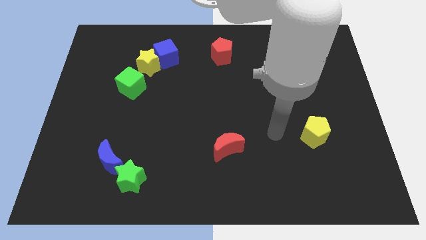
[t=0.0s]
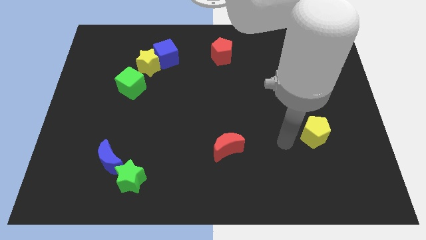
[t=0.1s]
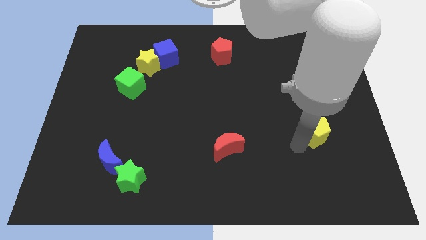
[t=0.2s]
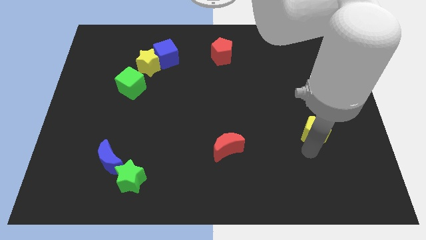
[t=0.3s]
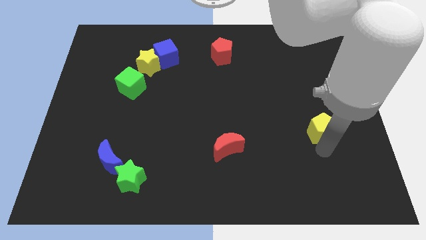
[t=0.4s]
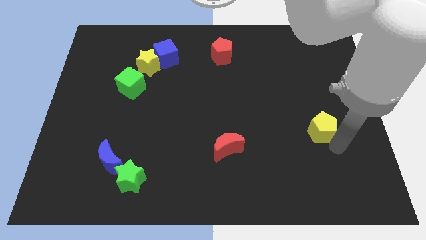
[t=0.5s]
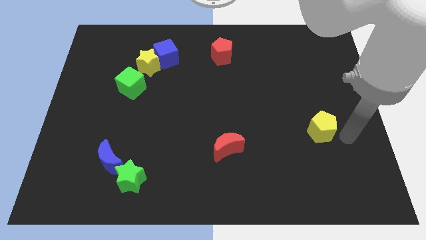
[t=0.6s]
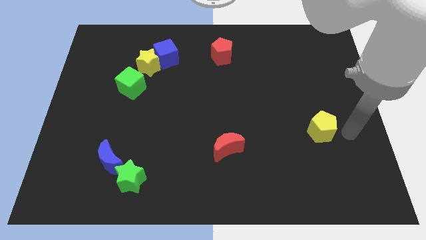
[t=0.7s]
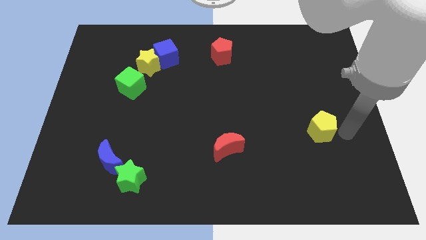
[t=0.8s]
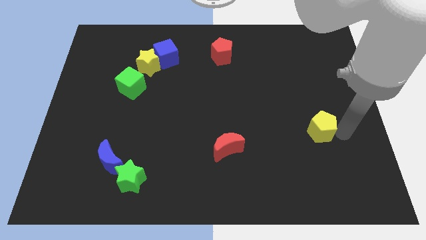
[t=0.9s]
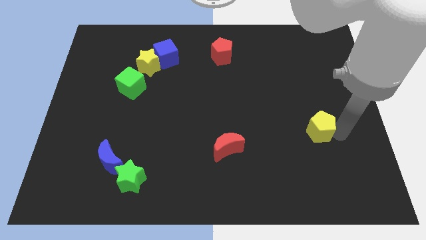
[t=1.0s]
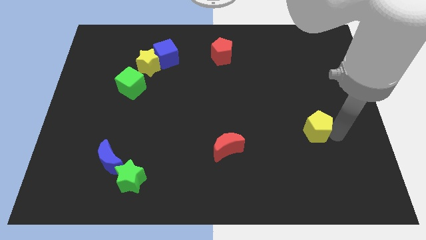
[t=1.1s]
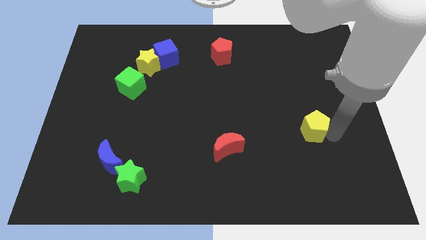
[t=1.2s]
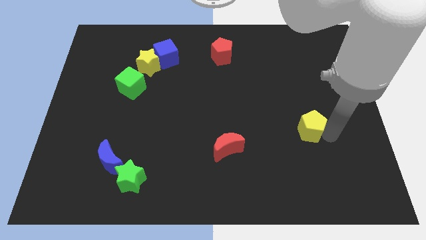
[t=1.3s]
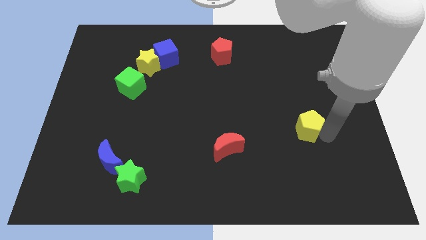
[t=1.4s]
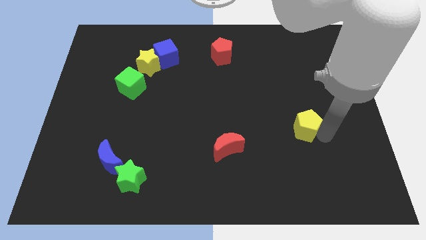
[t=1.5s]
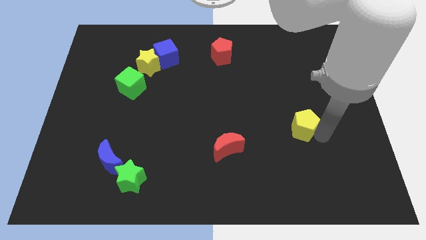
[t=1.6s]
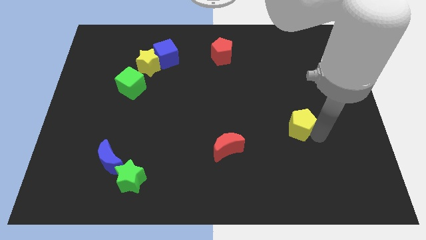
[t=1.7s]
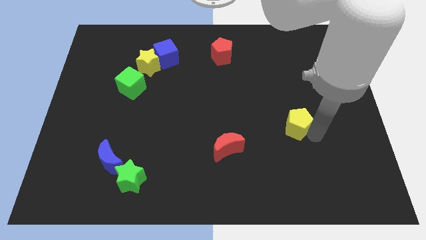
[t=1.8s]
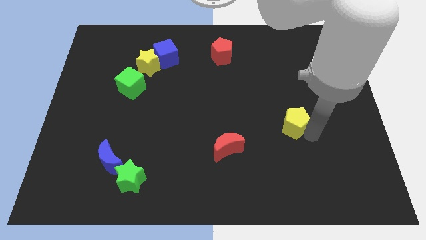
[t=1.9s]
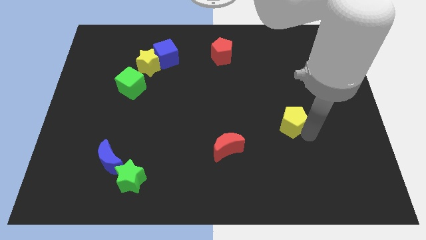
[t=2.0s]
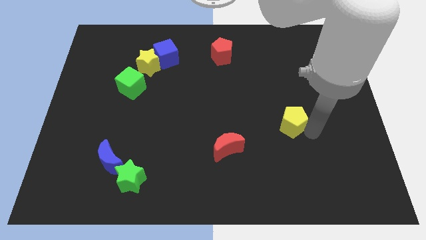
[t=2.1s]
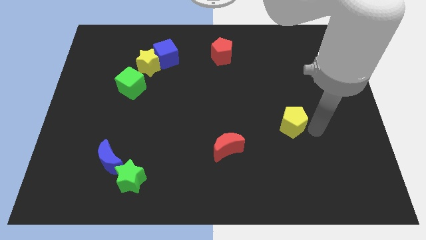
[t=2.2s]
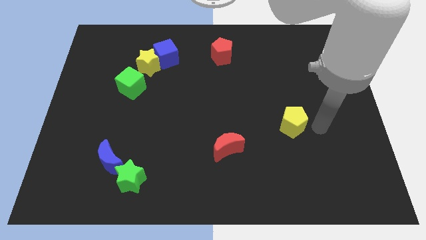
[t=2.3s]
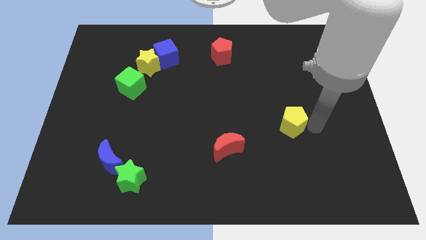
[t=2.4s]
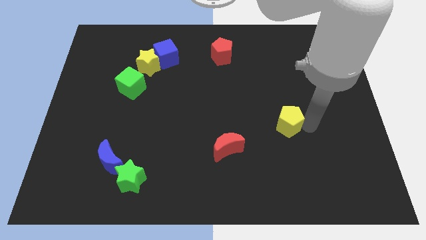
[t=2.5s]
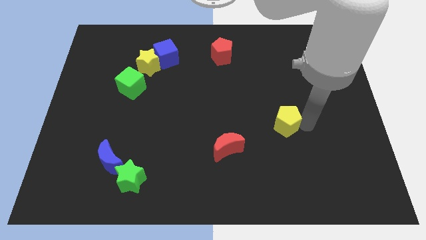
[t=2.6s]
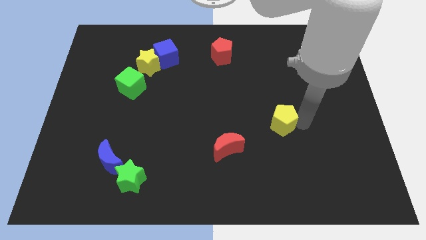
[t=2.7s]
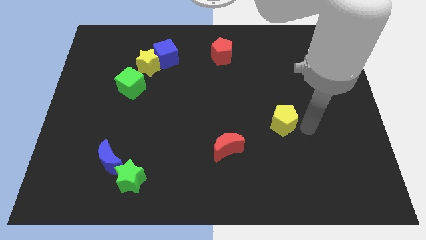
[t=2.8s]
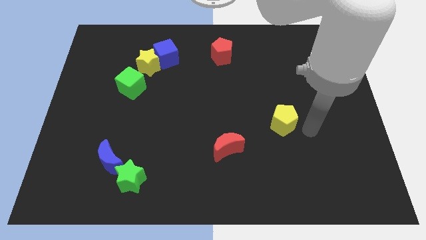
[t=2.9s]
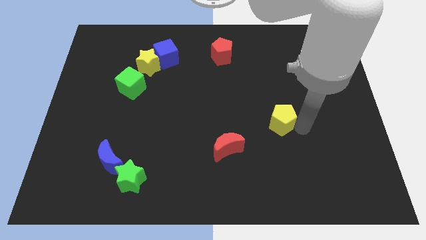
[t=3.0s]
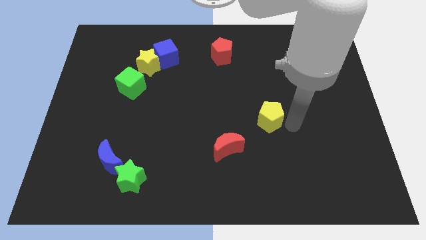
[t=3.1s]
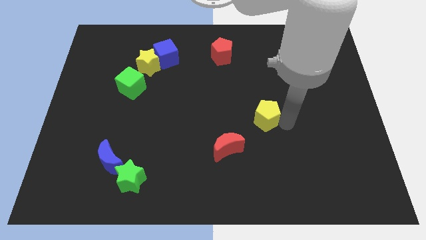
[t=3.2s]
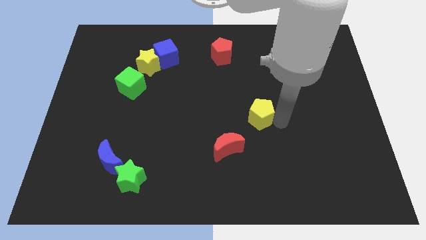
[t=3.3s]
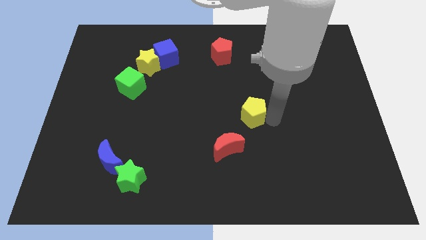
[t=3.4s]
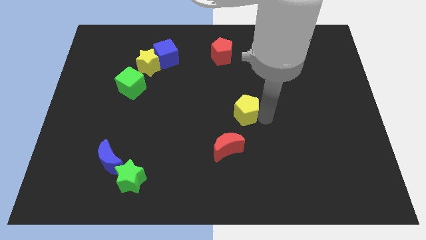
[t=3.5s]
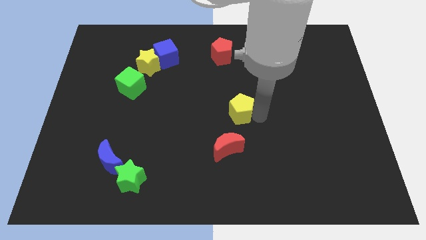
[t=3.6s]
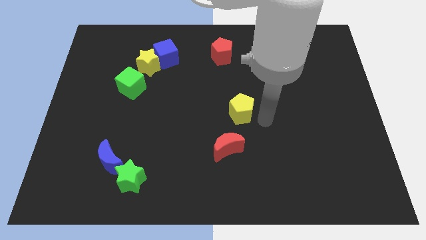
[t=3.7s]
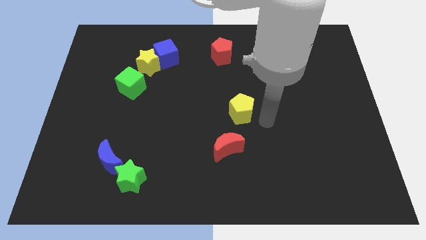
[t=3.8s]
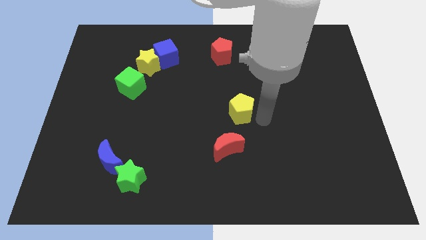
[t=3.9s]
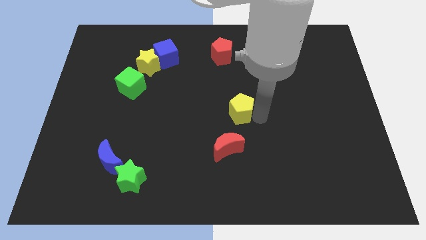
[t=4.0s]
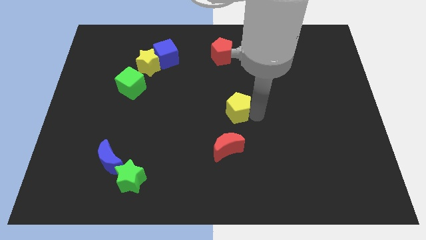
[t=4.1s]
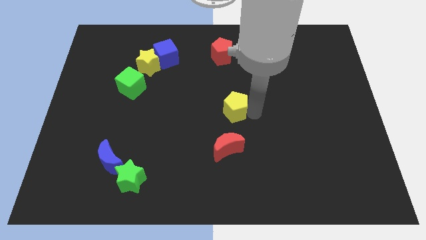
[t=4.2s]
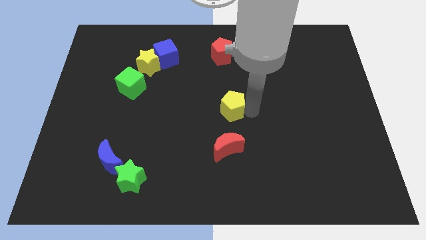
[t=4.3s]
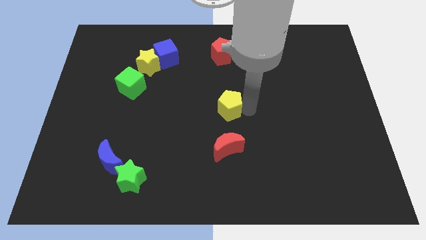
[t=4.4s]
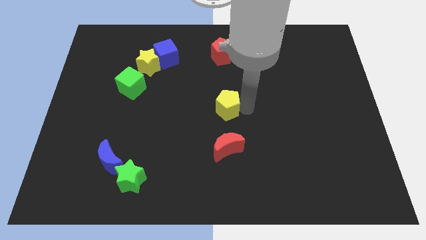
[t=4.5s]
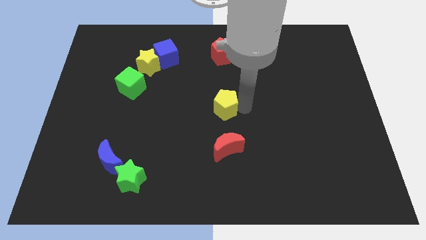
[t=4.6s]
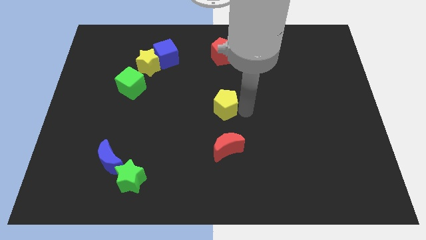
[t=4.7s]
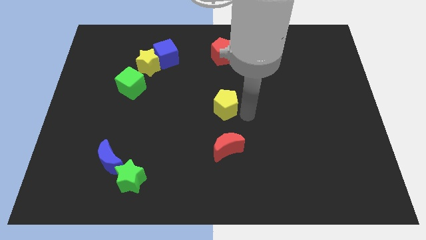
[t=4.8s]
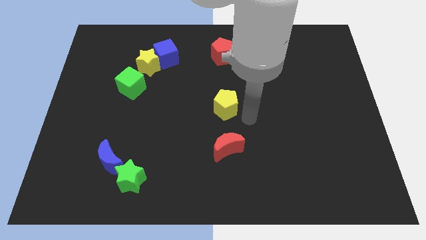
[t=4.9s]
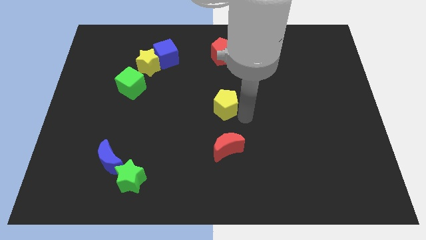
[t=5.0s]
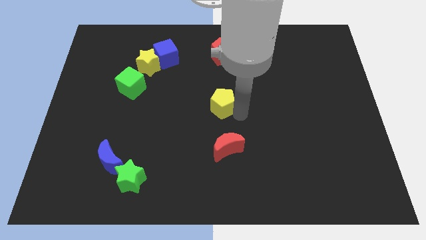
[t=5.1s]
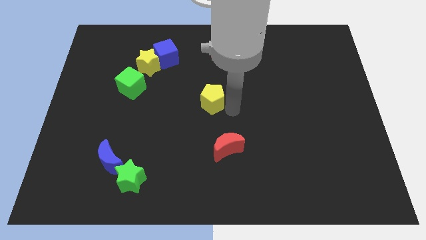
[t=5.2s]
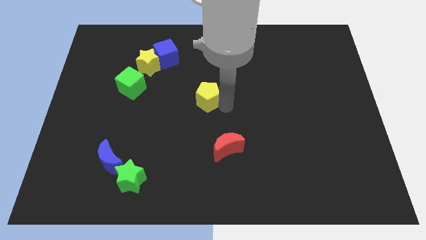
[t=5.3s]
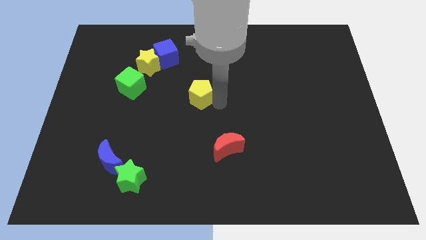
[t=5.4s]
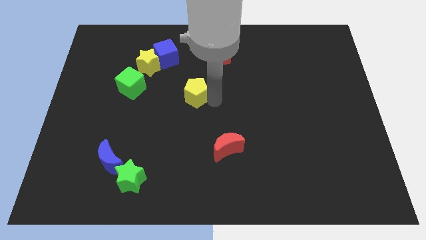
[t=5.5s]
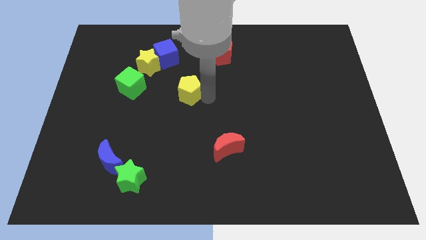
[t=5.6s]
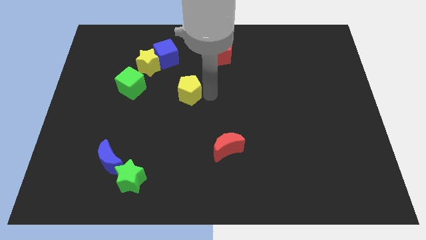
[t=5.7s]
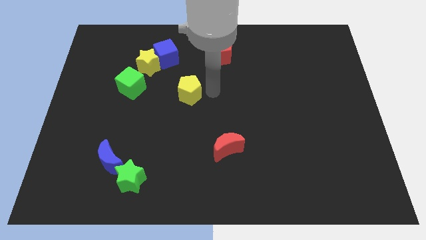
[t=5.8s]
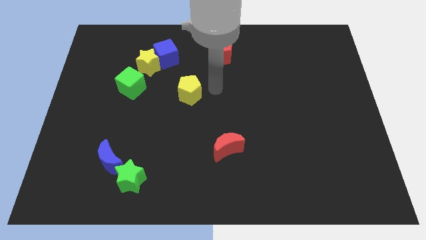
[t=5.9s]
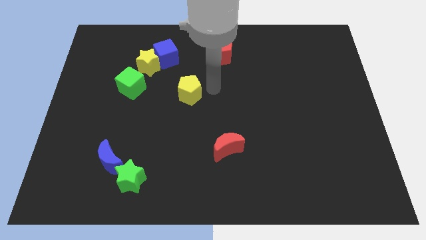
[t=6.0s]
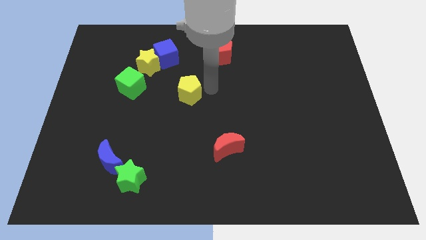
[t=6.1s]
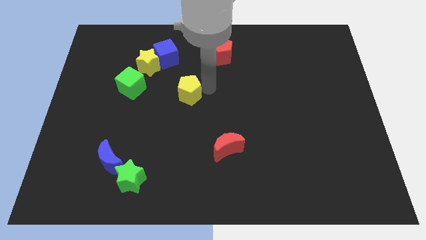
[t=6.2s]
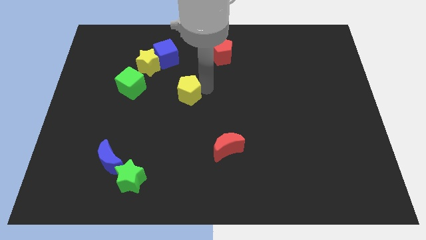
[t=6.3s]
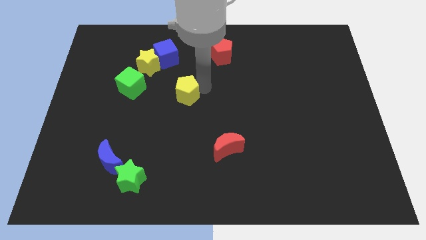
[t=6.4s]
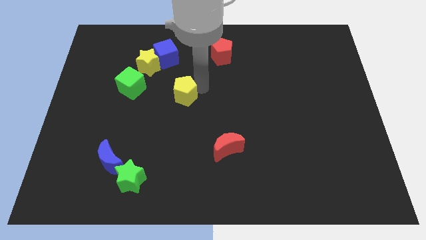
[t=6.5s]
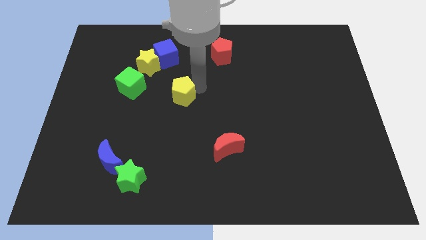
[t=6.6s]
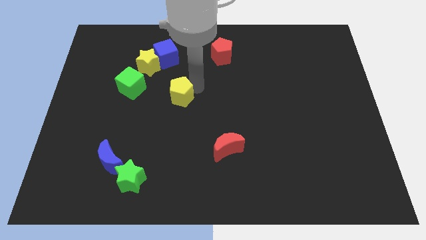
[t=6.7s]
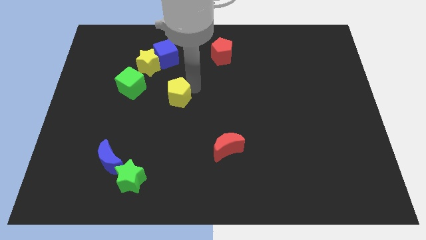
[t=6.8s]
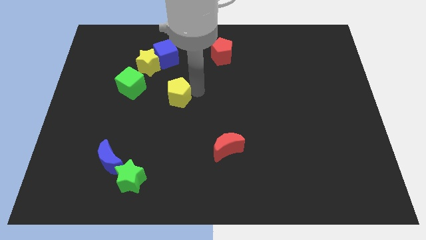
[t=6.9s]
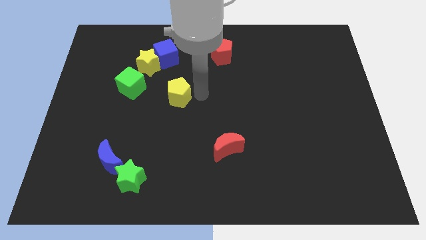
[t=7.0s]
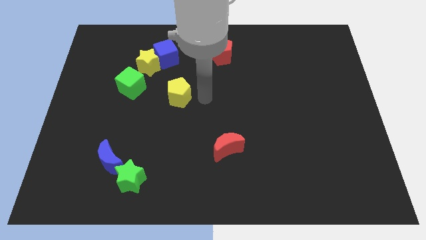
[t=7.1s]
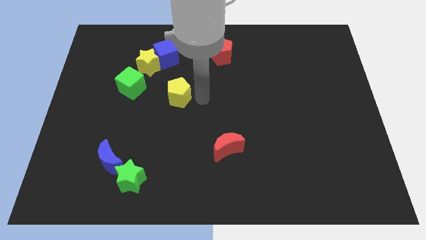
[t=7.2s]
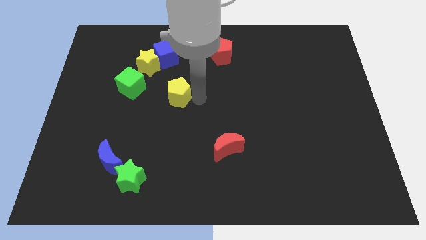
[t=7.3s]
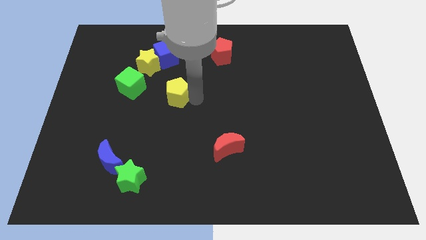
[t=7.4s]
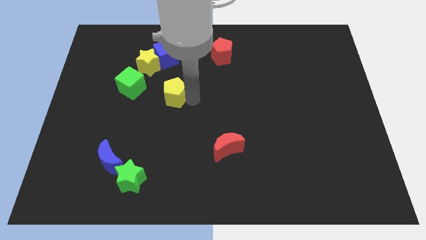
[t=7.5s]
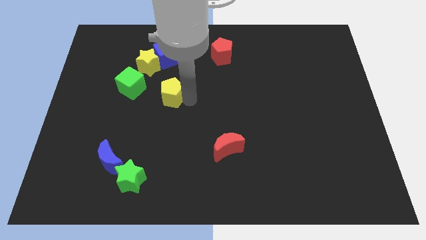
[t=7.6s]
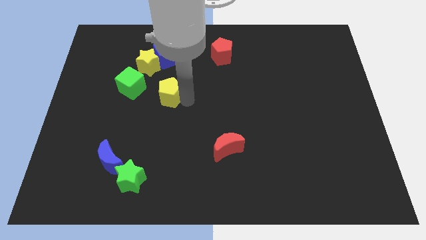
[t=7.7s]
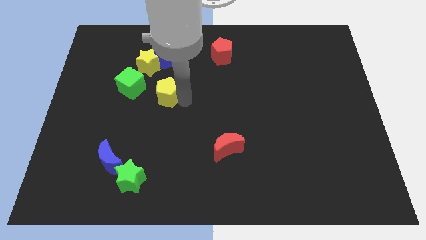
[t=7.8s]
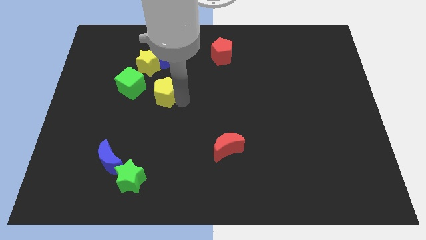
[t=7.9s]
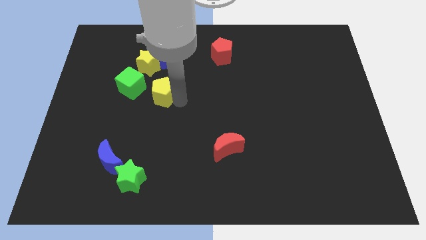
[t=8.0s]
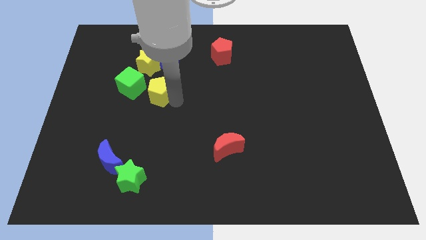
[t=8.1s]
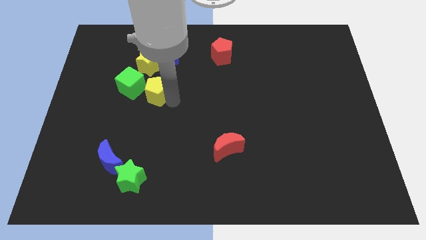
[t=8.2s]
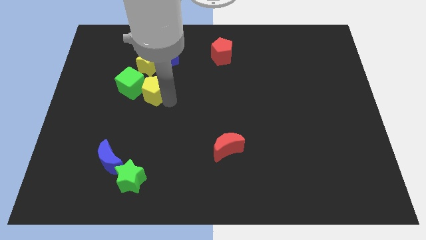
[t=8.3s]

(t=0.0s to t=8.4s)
push the yellow pentagon next to the green cube
